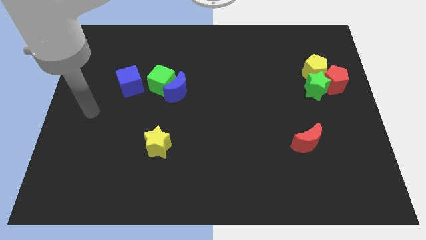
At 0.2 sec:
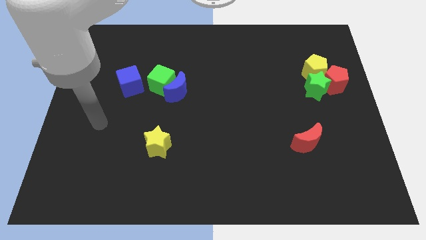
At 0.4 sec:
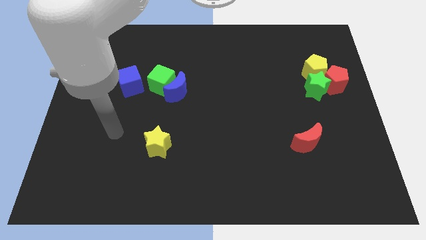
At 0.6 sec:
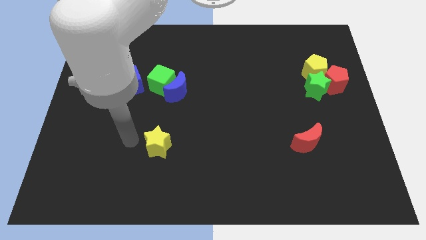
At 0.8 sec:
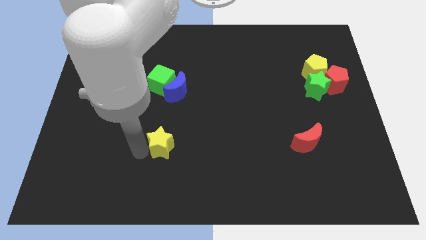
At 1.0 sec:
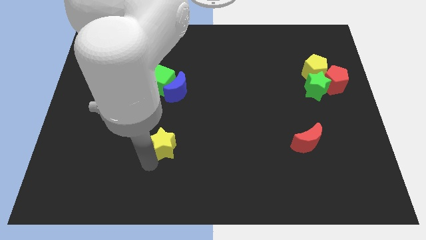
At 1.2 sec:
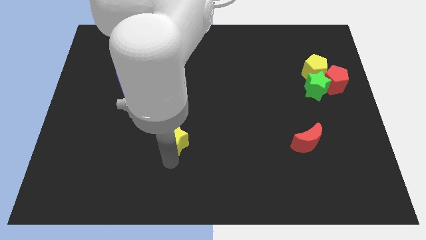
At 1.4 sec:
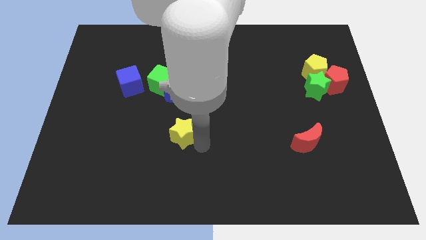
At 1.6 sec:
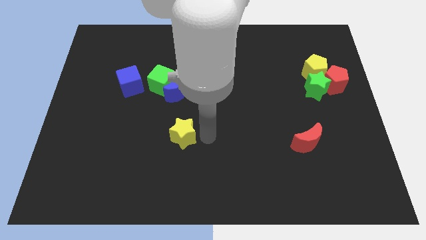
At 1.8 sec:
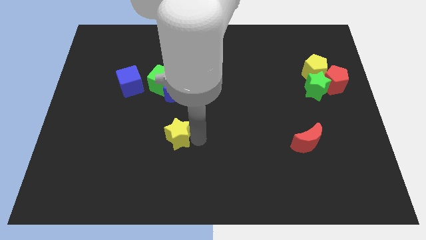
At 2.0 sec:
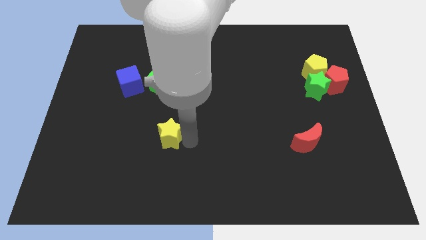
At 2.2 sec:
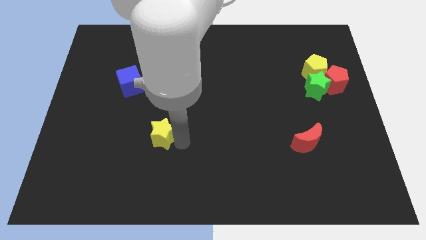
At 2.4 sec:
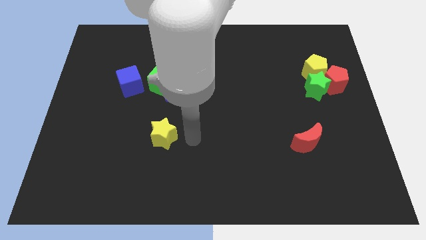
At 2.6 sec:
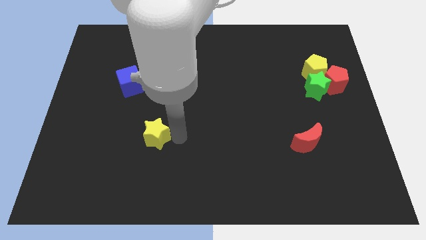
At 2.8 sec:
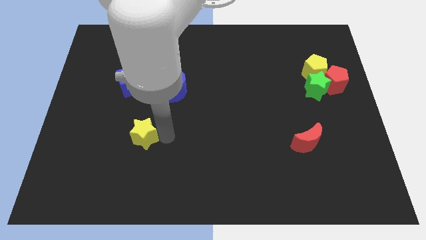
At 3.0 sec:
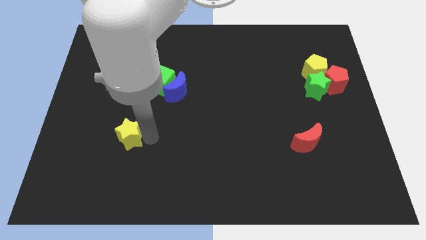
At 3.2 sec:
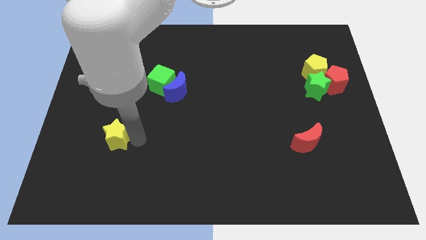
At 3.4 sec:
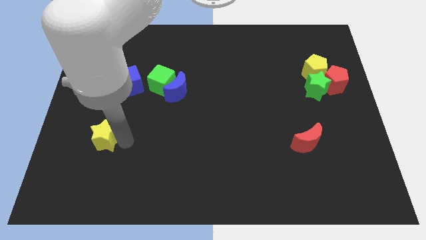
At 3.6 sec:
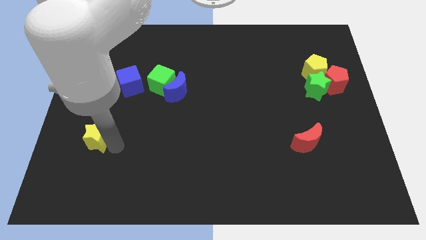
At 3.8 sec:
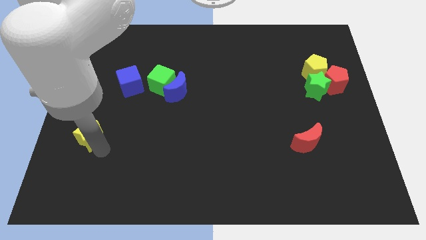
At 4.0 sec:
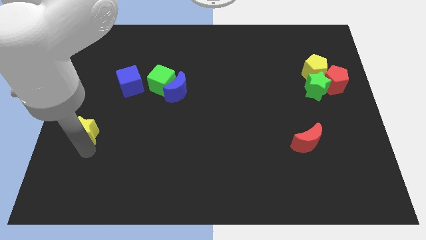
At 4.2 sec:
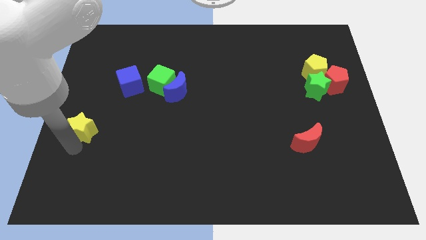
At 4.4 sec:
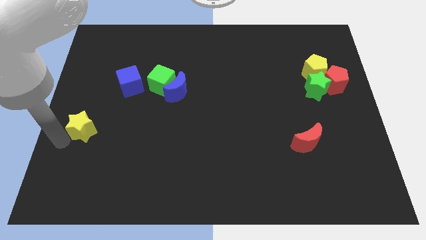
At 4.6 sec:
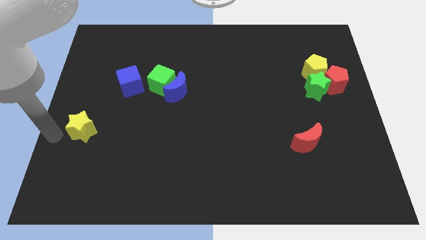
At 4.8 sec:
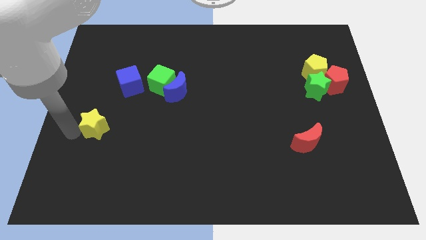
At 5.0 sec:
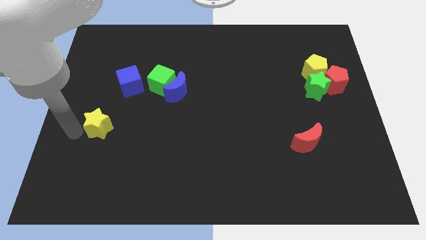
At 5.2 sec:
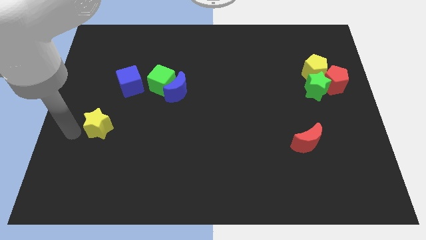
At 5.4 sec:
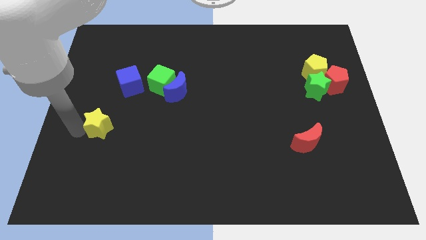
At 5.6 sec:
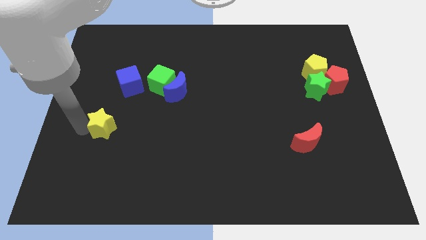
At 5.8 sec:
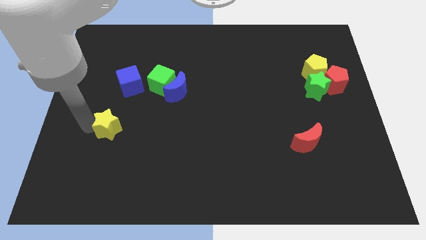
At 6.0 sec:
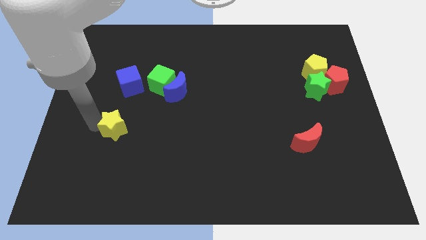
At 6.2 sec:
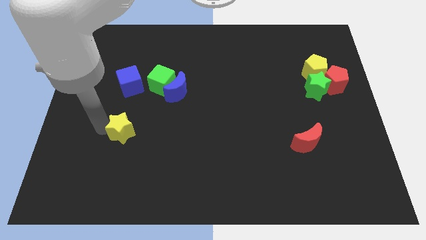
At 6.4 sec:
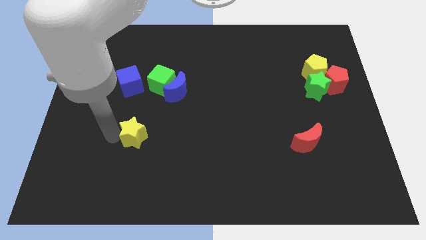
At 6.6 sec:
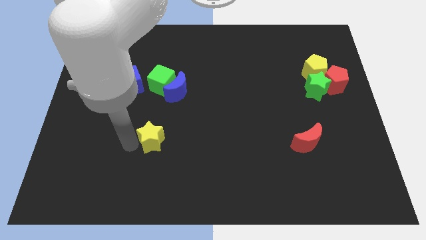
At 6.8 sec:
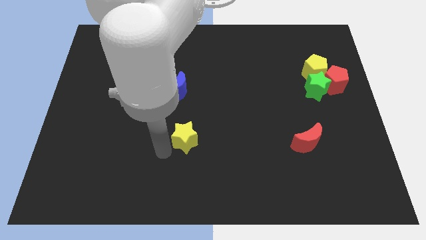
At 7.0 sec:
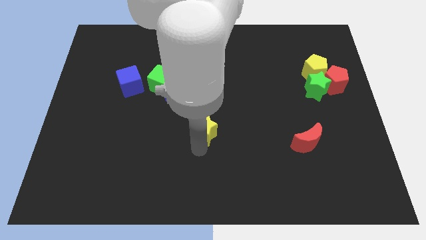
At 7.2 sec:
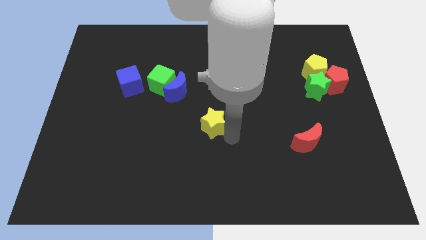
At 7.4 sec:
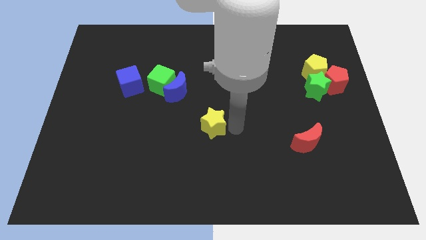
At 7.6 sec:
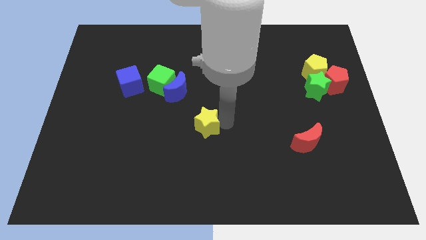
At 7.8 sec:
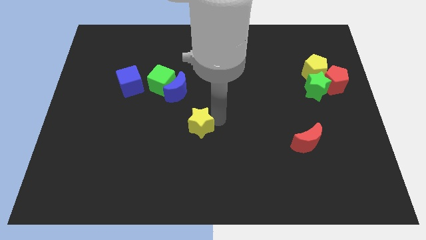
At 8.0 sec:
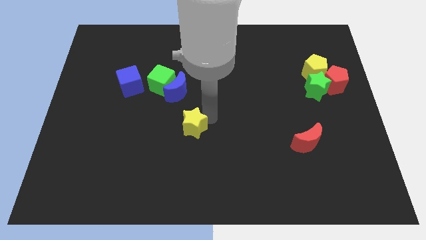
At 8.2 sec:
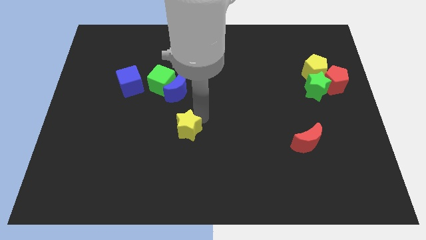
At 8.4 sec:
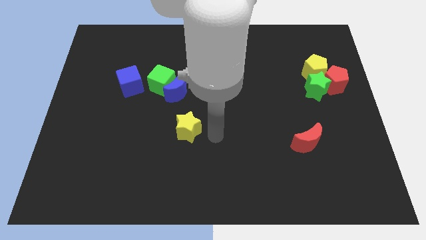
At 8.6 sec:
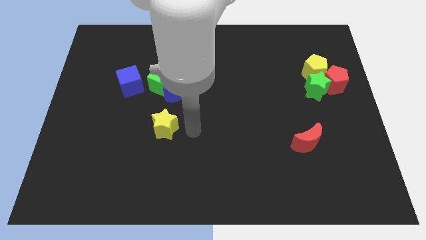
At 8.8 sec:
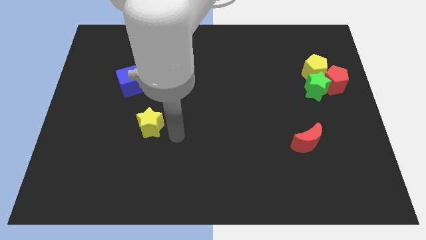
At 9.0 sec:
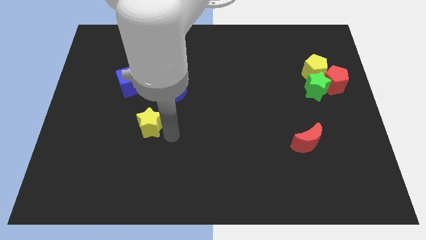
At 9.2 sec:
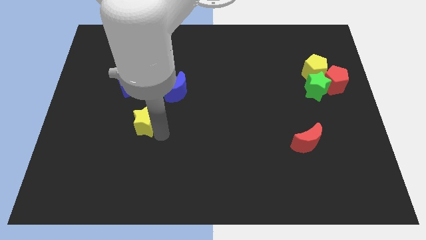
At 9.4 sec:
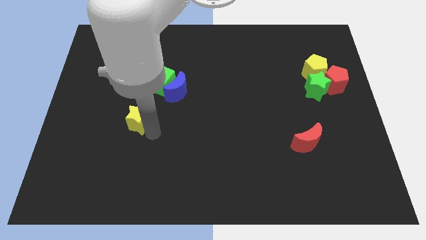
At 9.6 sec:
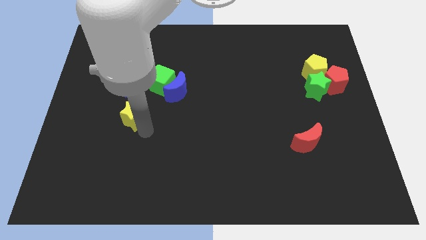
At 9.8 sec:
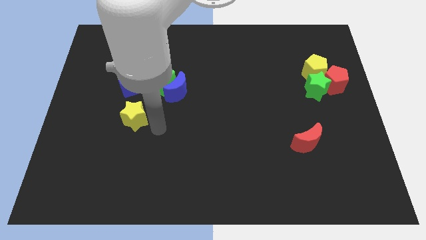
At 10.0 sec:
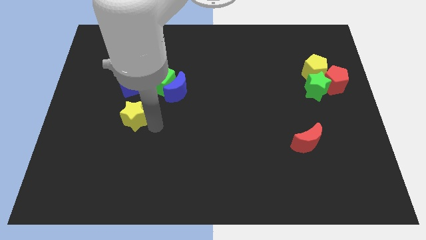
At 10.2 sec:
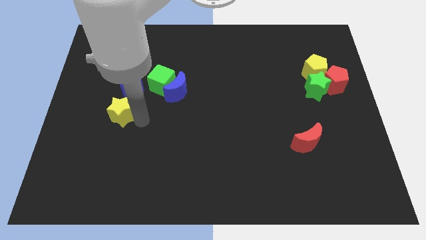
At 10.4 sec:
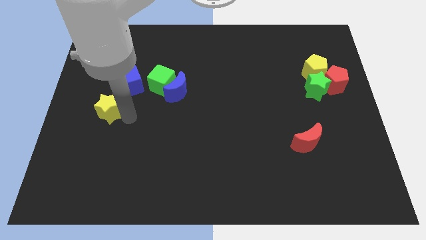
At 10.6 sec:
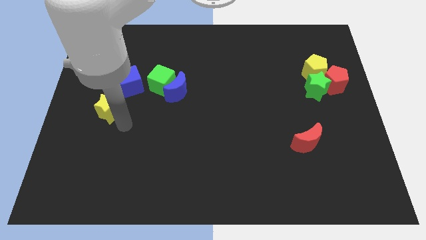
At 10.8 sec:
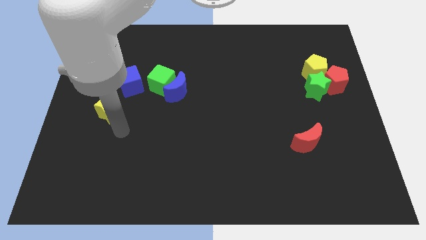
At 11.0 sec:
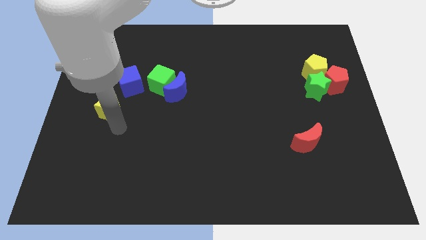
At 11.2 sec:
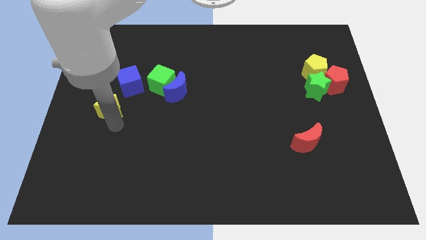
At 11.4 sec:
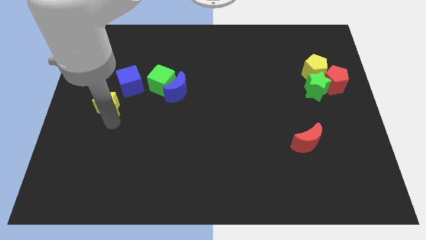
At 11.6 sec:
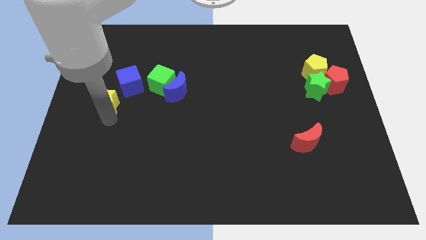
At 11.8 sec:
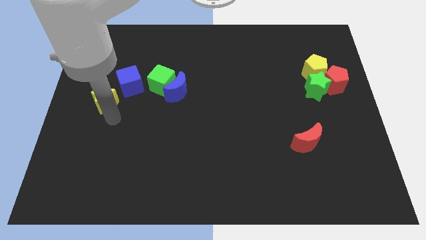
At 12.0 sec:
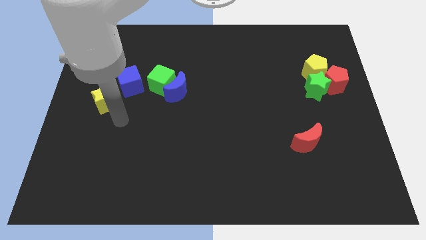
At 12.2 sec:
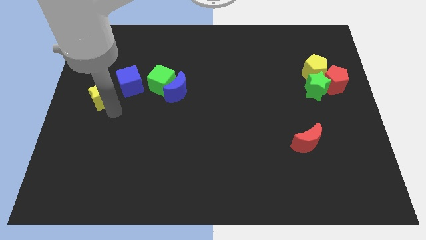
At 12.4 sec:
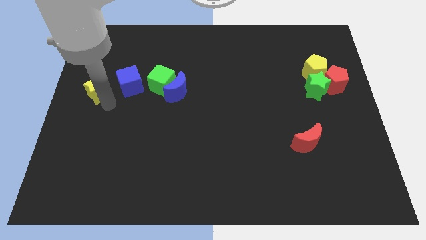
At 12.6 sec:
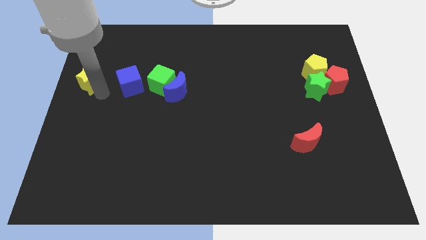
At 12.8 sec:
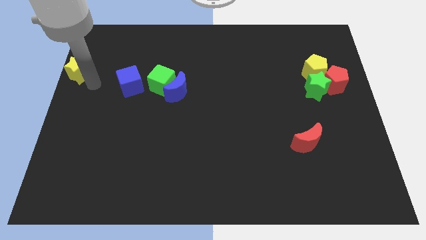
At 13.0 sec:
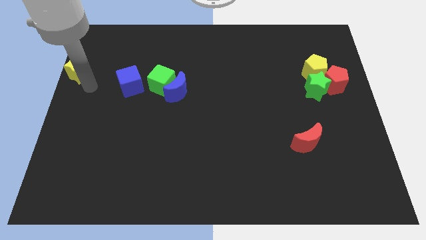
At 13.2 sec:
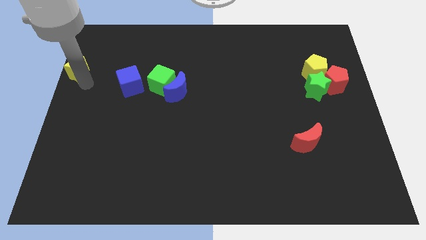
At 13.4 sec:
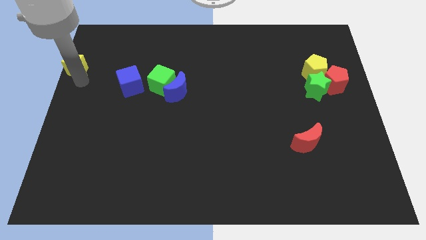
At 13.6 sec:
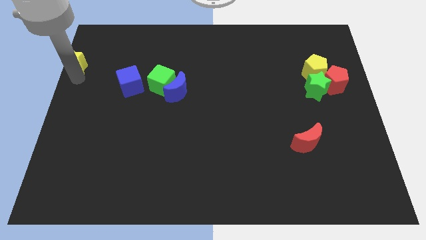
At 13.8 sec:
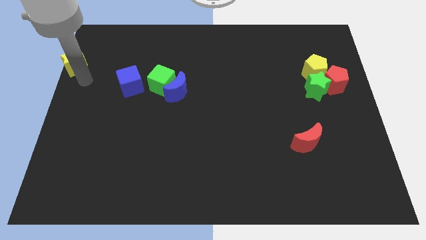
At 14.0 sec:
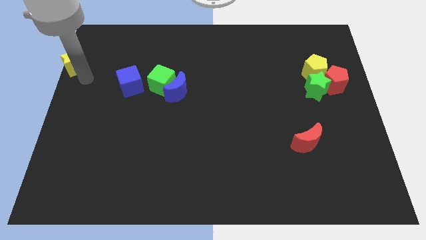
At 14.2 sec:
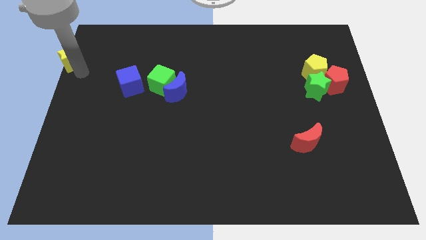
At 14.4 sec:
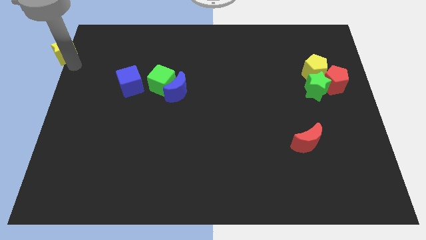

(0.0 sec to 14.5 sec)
push the yellow star to the top left of the board
